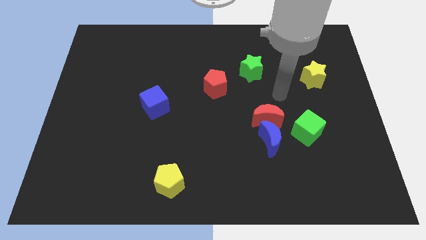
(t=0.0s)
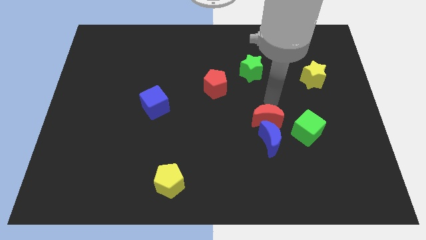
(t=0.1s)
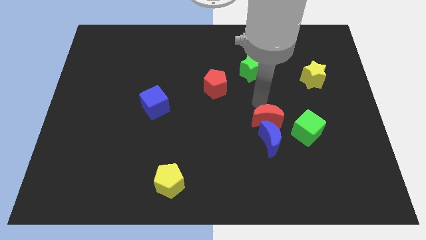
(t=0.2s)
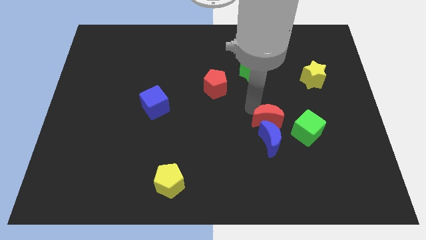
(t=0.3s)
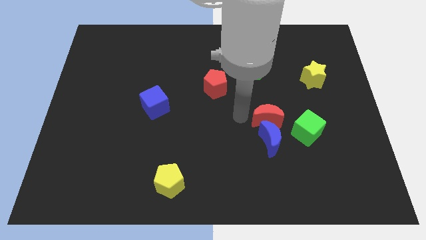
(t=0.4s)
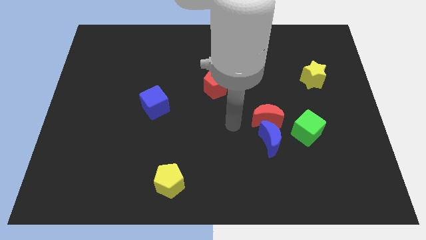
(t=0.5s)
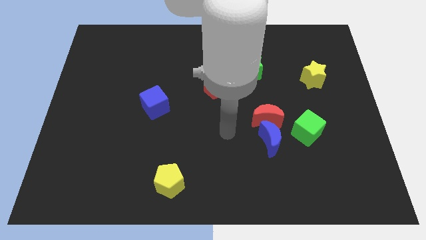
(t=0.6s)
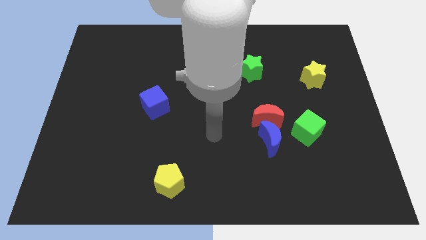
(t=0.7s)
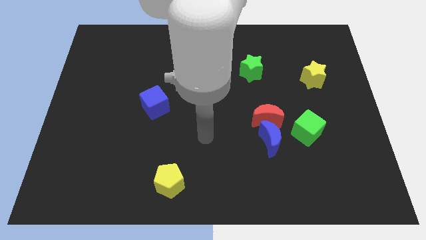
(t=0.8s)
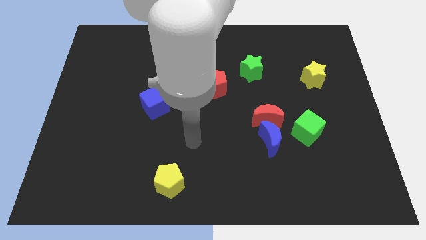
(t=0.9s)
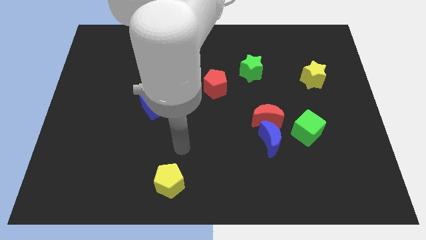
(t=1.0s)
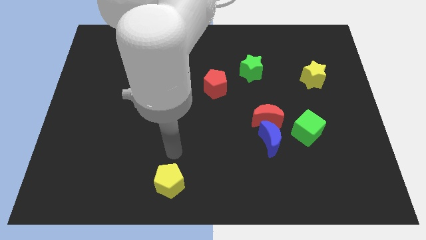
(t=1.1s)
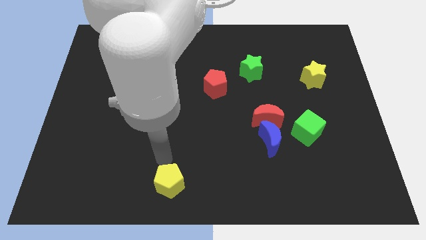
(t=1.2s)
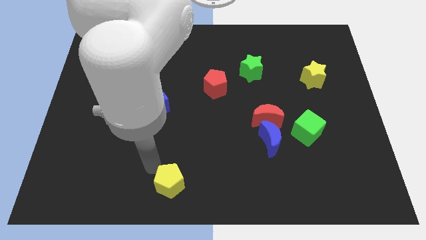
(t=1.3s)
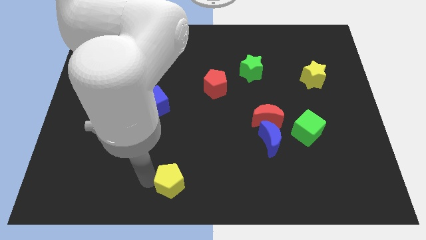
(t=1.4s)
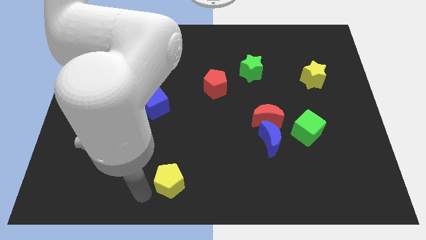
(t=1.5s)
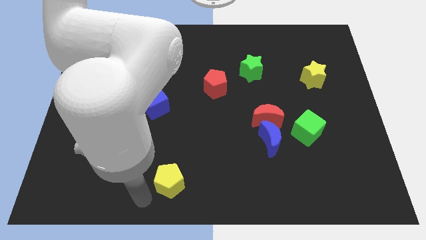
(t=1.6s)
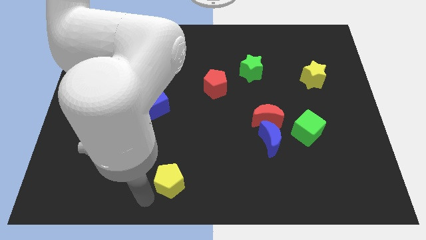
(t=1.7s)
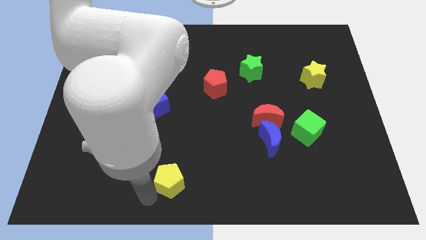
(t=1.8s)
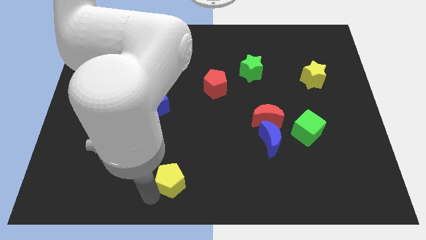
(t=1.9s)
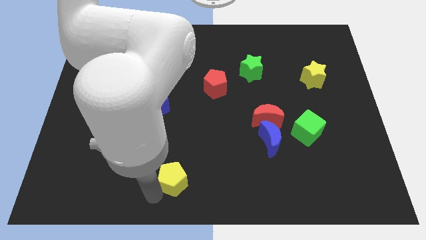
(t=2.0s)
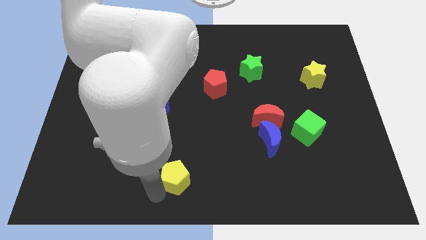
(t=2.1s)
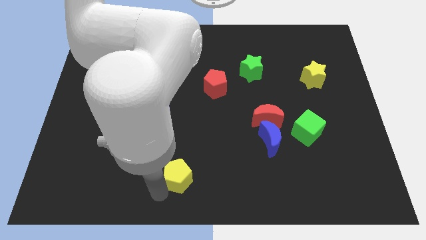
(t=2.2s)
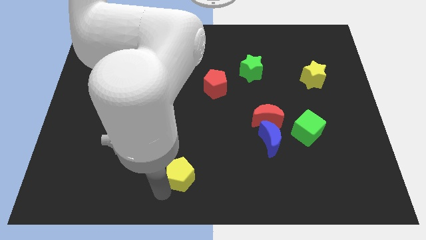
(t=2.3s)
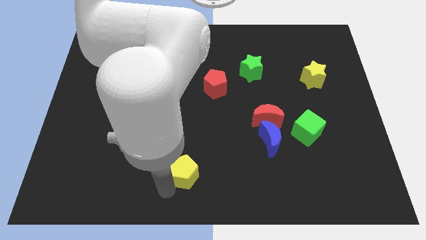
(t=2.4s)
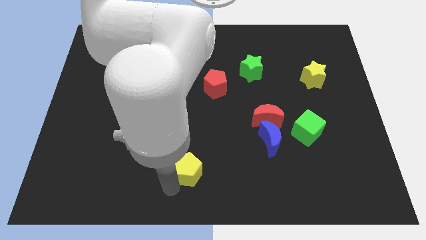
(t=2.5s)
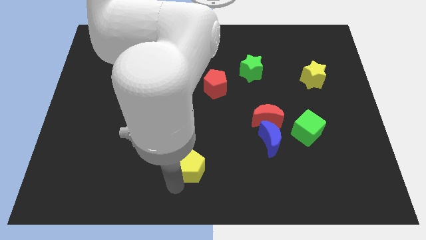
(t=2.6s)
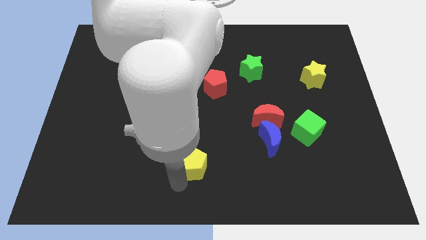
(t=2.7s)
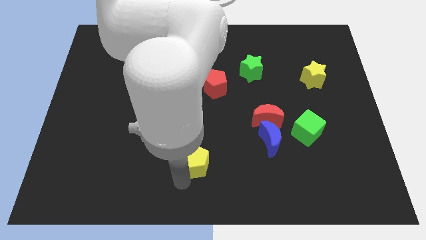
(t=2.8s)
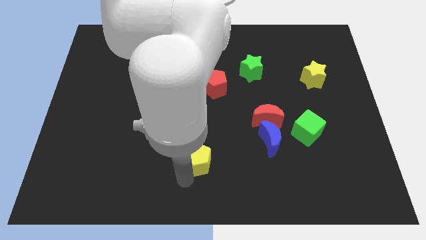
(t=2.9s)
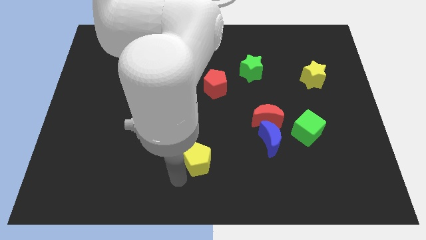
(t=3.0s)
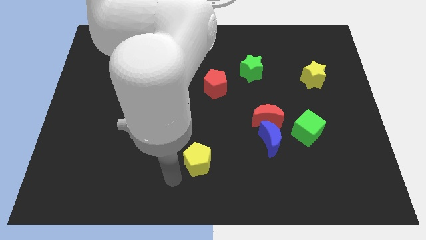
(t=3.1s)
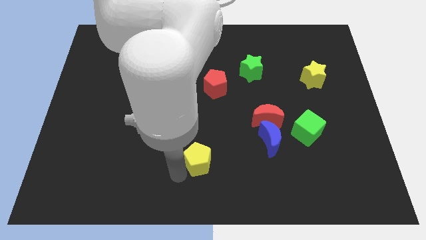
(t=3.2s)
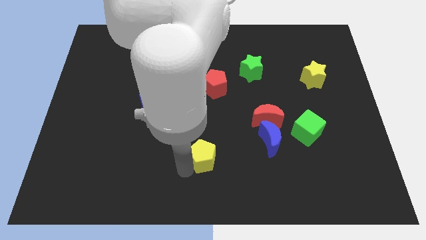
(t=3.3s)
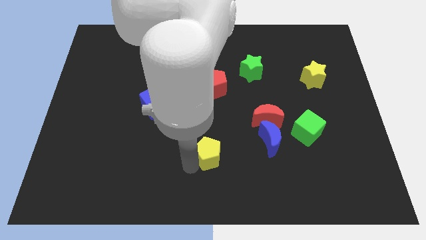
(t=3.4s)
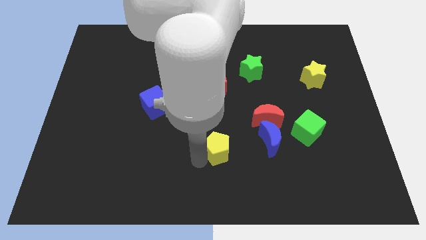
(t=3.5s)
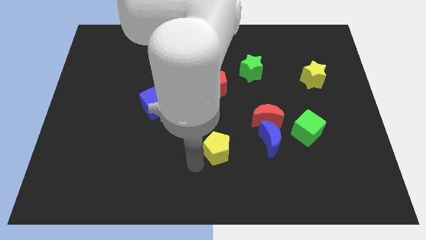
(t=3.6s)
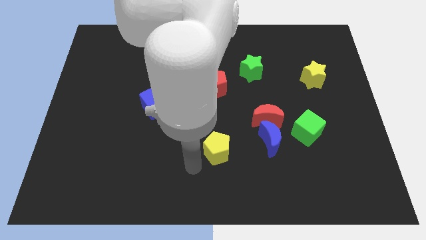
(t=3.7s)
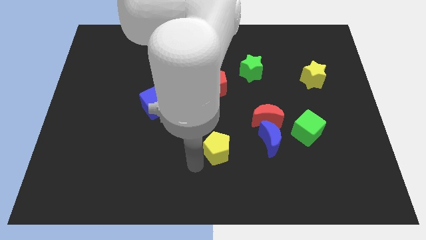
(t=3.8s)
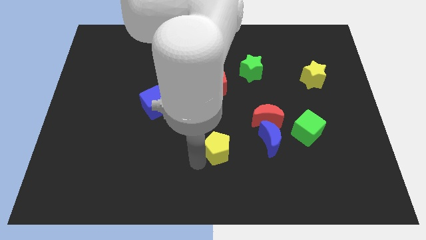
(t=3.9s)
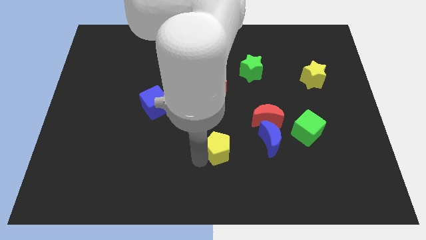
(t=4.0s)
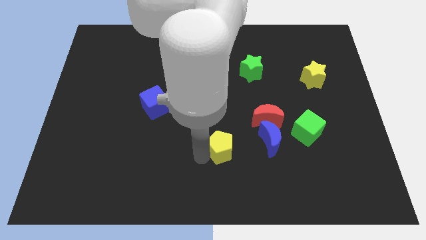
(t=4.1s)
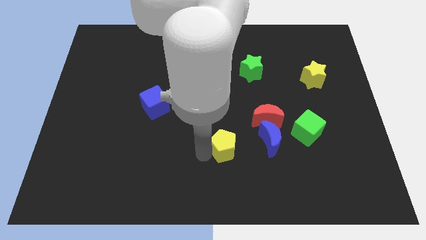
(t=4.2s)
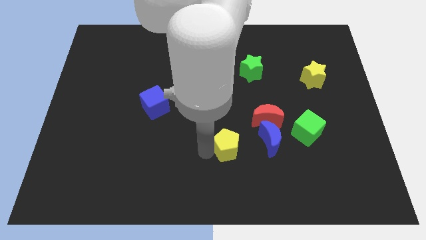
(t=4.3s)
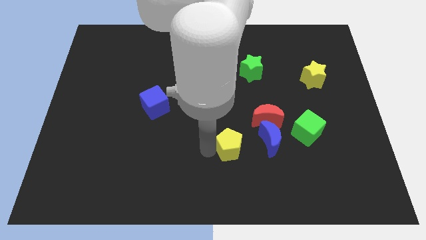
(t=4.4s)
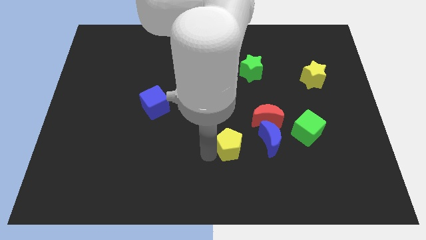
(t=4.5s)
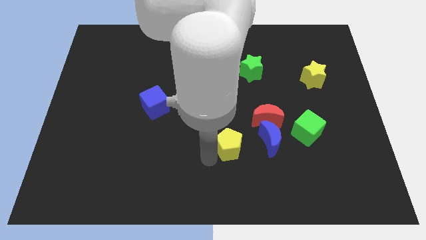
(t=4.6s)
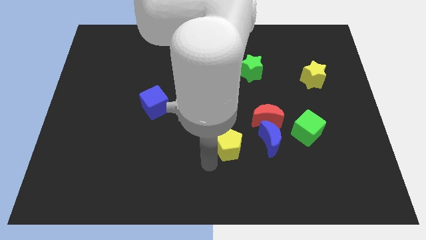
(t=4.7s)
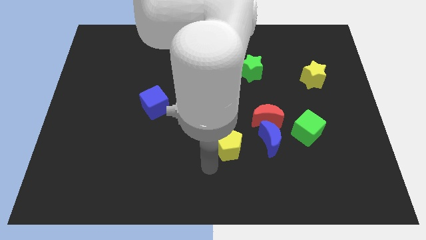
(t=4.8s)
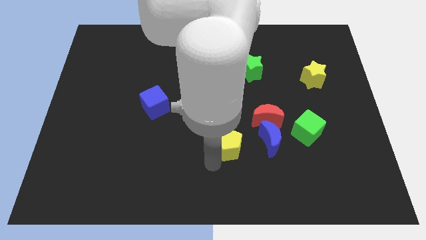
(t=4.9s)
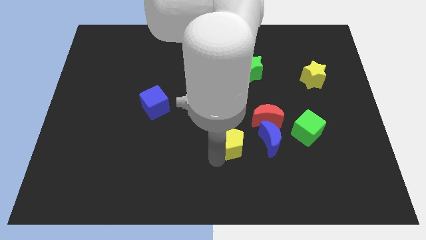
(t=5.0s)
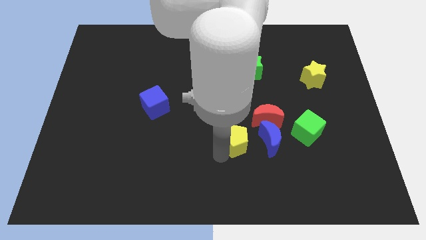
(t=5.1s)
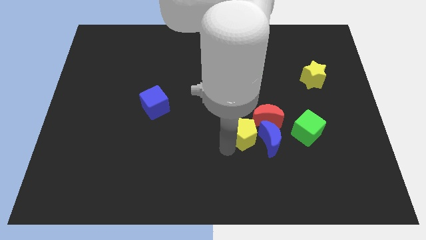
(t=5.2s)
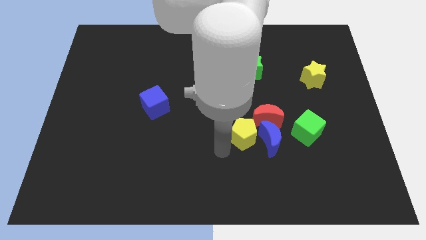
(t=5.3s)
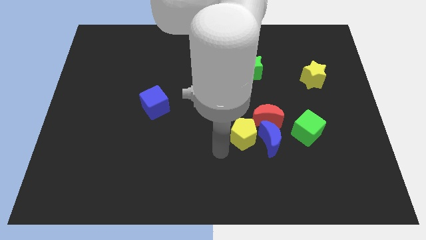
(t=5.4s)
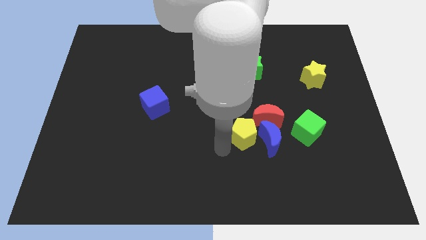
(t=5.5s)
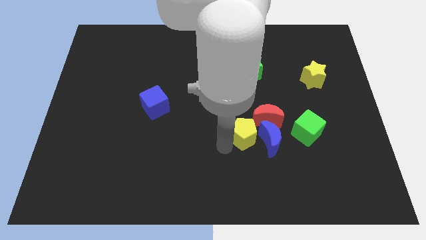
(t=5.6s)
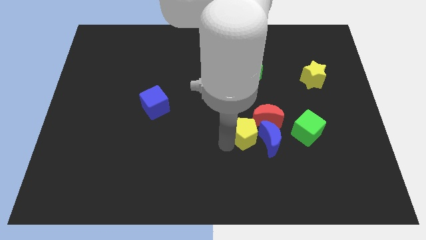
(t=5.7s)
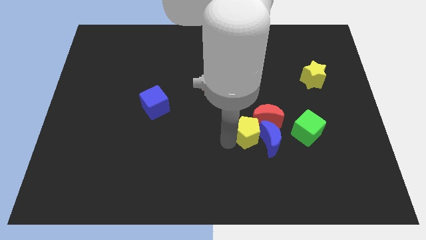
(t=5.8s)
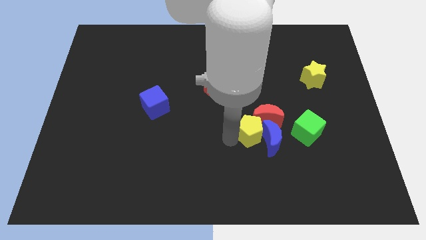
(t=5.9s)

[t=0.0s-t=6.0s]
put the yellow pentagon to the red moon

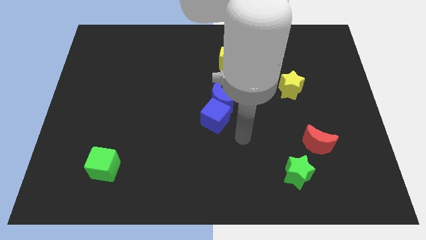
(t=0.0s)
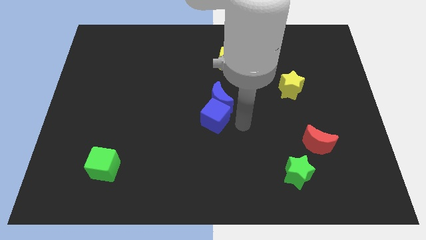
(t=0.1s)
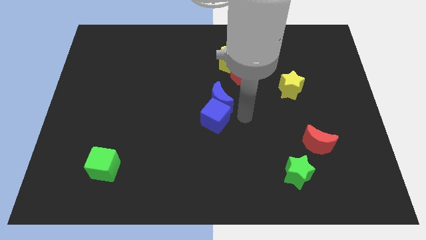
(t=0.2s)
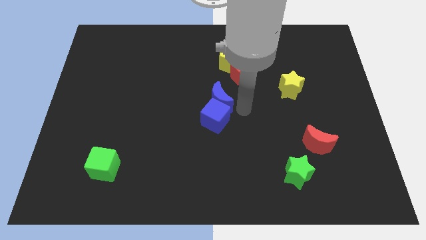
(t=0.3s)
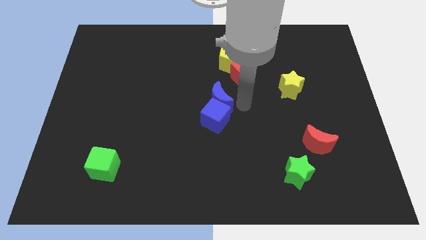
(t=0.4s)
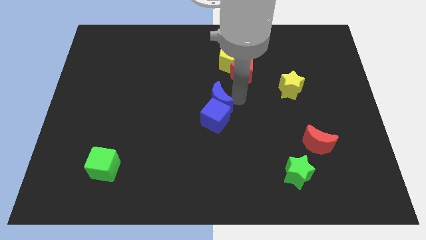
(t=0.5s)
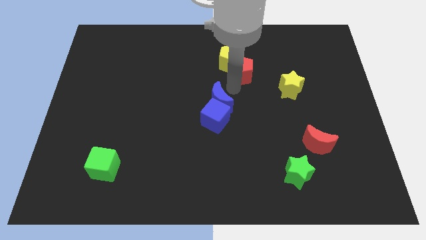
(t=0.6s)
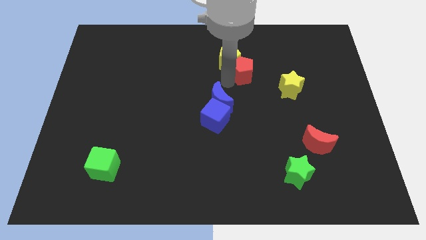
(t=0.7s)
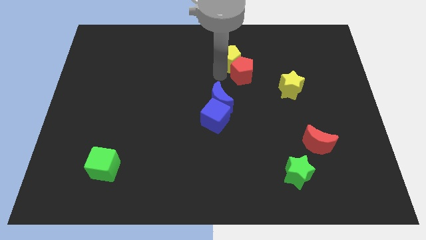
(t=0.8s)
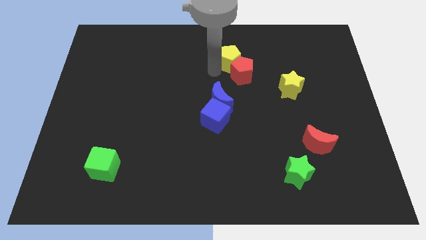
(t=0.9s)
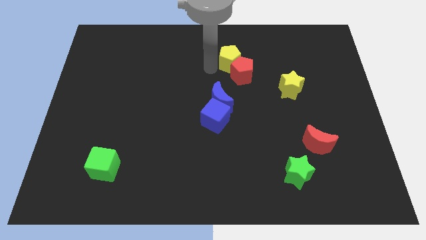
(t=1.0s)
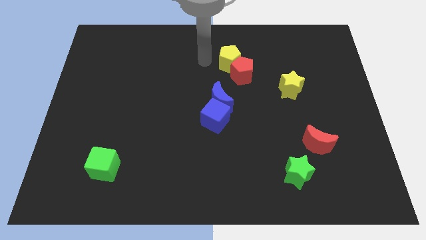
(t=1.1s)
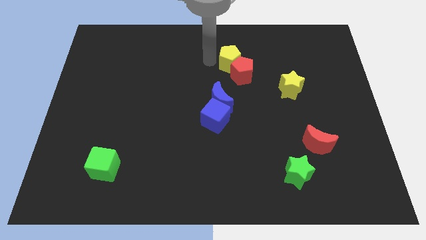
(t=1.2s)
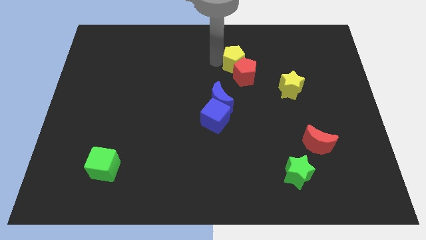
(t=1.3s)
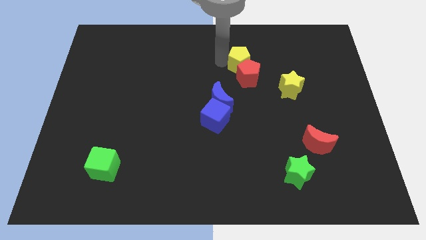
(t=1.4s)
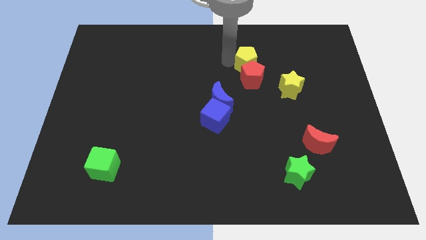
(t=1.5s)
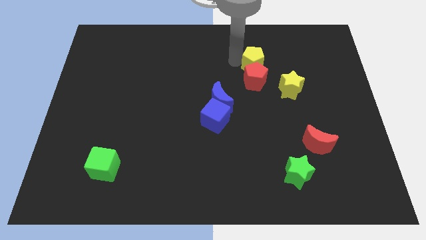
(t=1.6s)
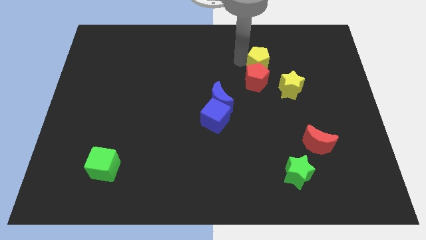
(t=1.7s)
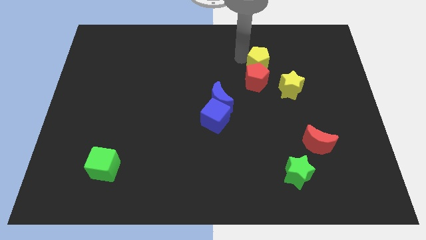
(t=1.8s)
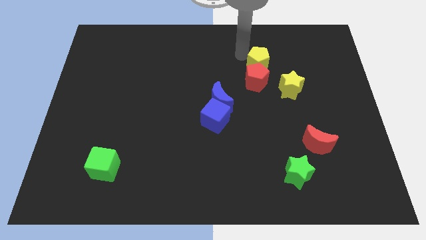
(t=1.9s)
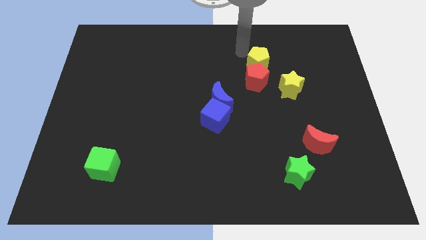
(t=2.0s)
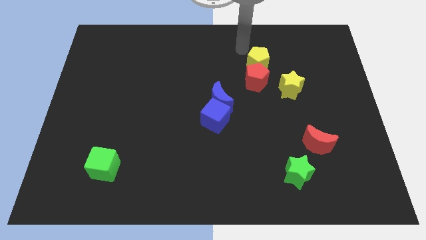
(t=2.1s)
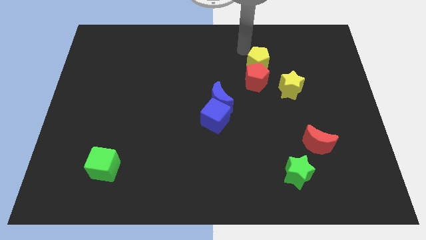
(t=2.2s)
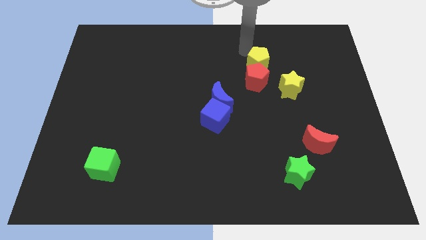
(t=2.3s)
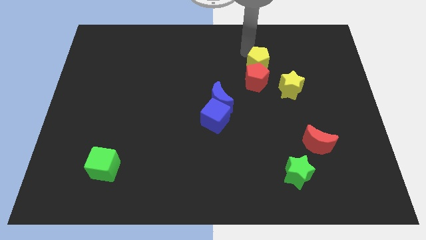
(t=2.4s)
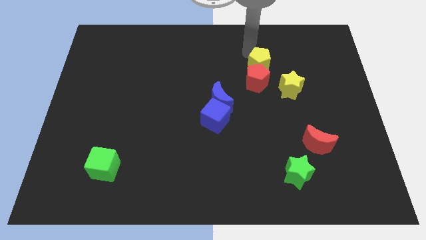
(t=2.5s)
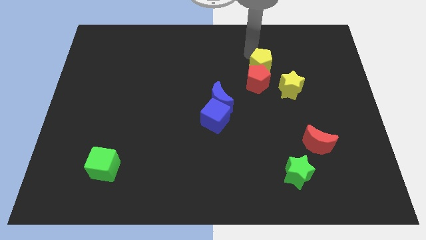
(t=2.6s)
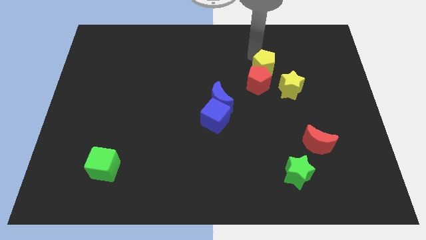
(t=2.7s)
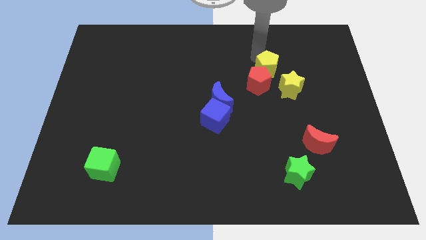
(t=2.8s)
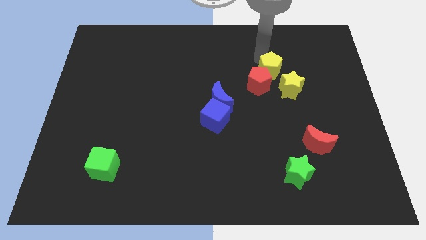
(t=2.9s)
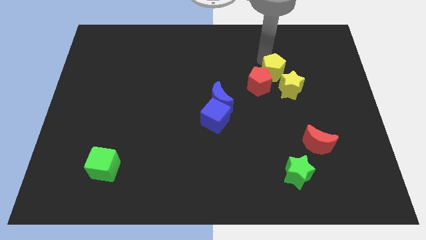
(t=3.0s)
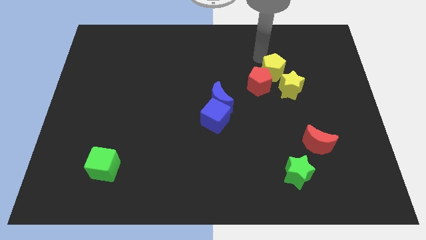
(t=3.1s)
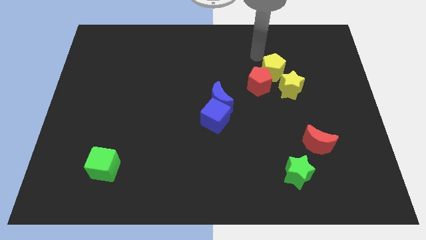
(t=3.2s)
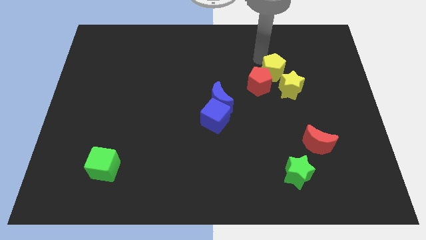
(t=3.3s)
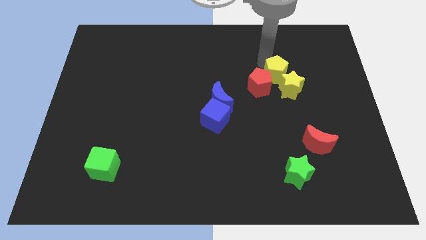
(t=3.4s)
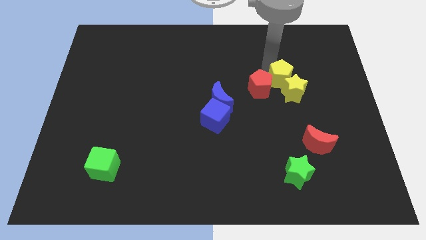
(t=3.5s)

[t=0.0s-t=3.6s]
slide the yellow pentagon close to the yellow star
